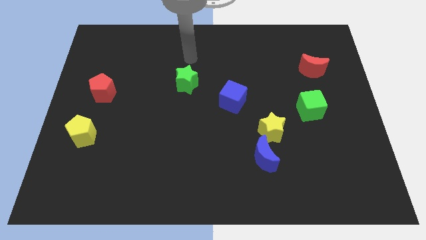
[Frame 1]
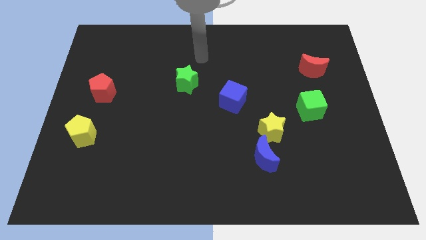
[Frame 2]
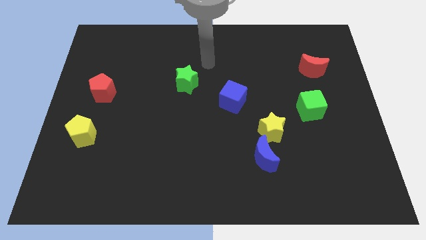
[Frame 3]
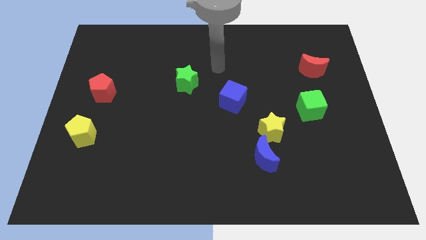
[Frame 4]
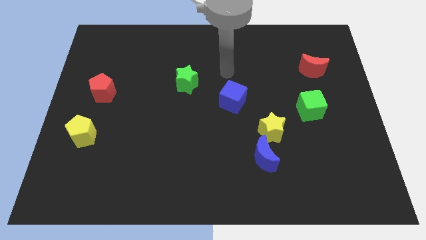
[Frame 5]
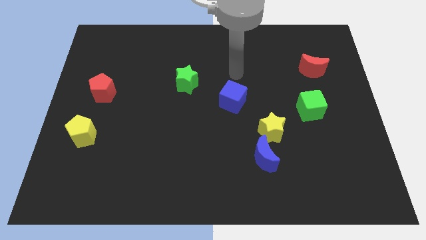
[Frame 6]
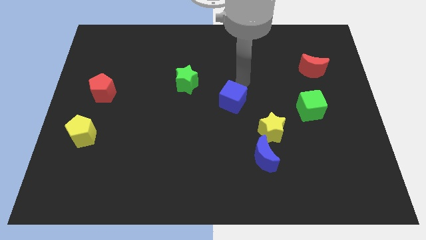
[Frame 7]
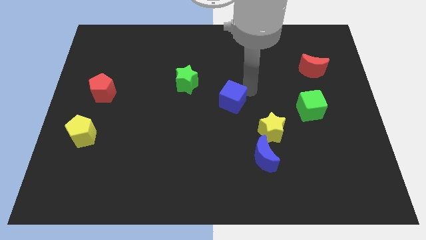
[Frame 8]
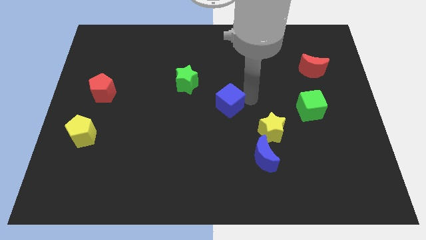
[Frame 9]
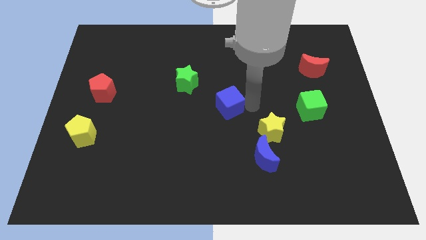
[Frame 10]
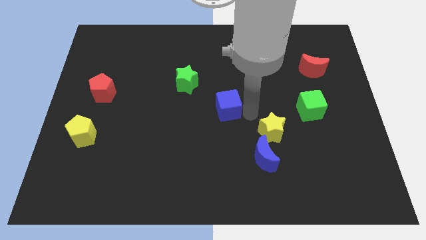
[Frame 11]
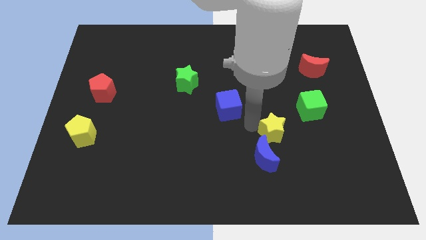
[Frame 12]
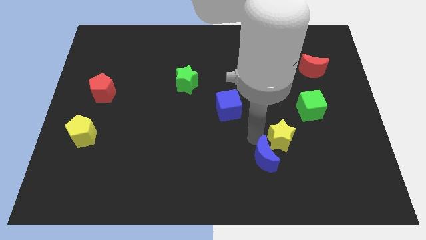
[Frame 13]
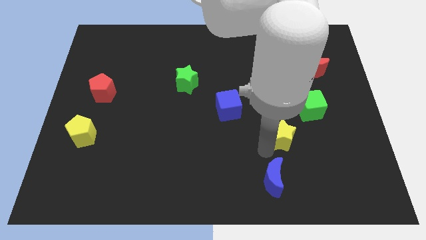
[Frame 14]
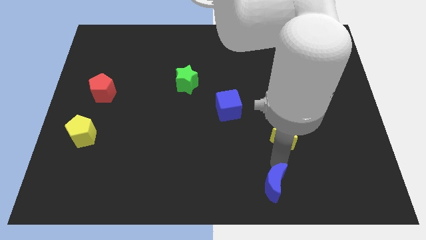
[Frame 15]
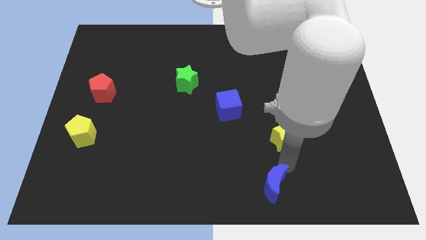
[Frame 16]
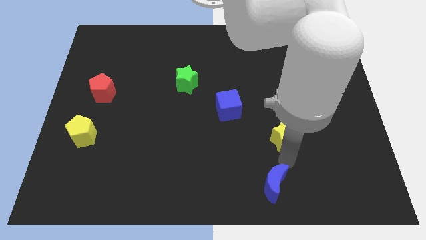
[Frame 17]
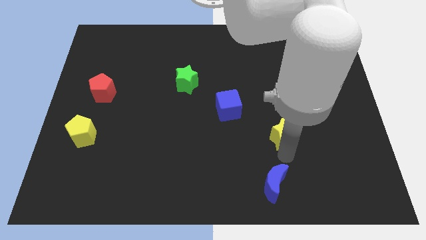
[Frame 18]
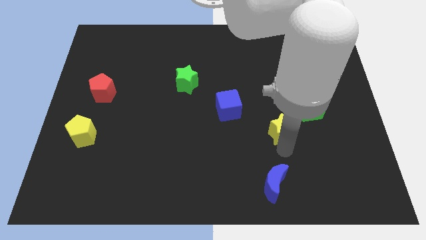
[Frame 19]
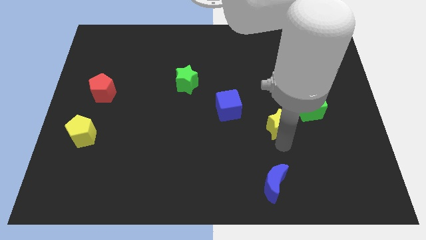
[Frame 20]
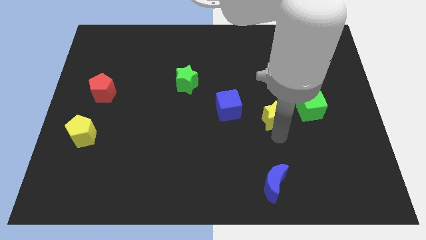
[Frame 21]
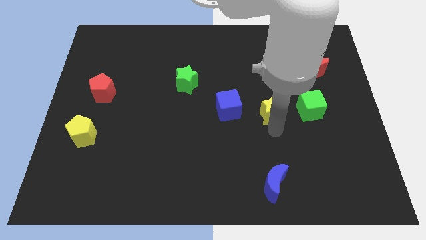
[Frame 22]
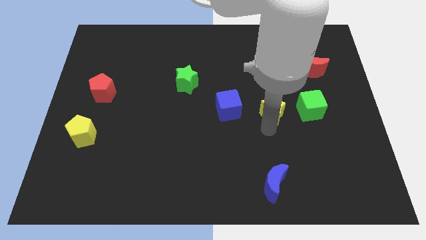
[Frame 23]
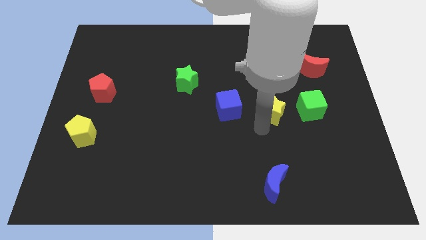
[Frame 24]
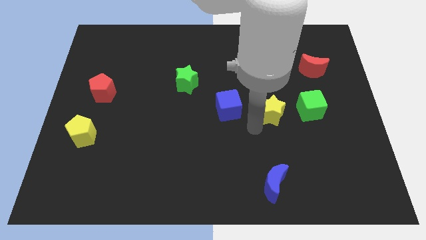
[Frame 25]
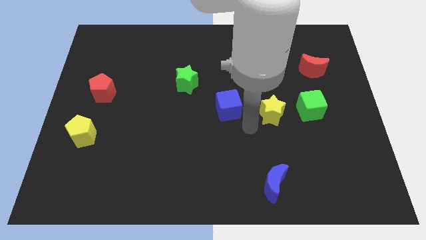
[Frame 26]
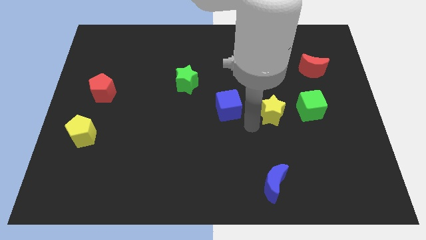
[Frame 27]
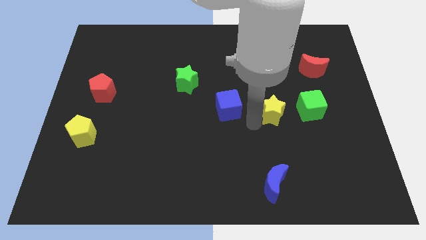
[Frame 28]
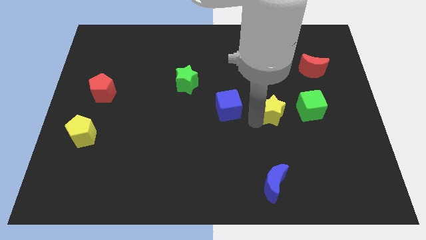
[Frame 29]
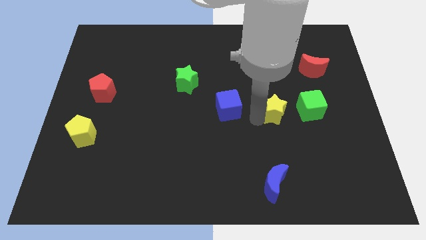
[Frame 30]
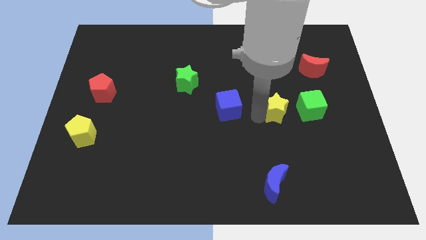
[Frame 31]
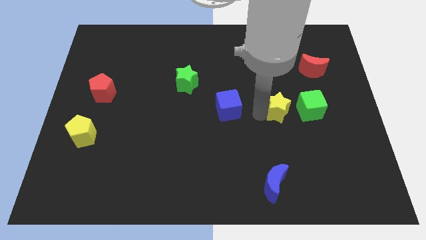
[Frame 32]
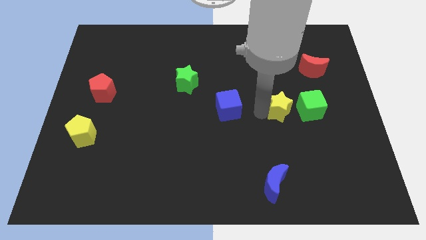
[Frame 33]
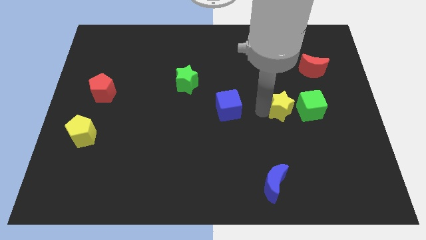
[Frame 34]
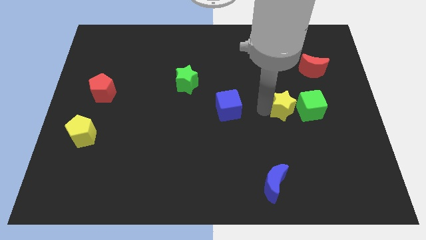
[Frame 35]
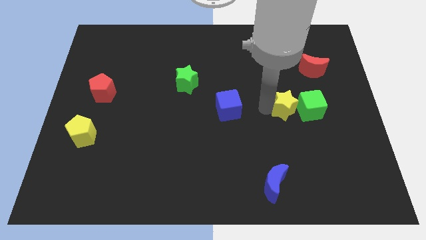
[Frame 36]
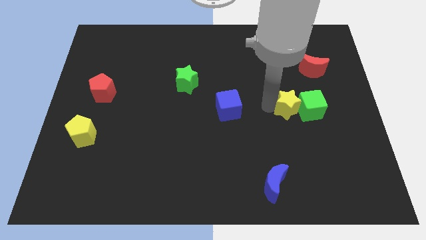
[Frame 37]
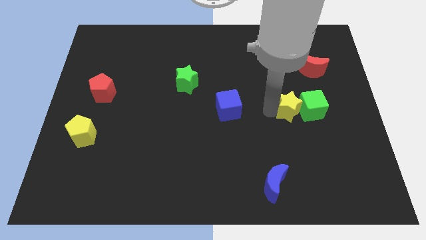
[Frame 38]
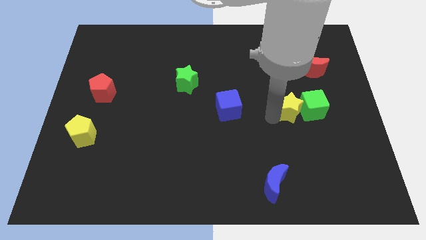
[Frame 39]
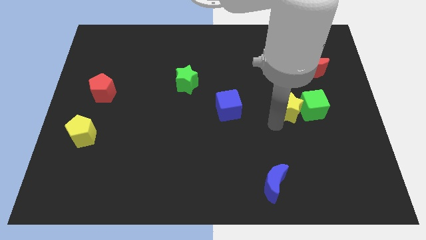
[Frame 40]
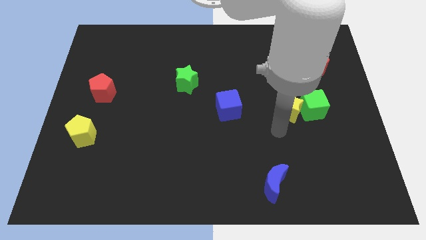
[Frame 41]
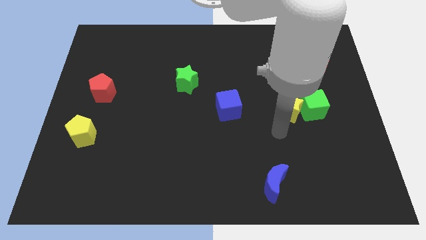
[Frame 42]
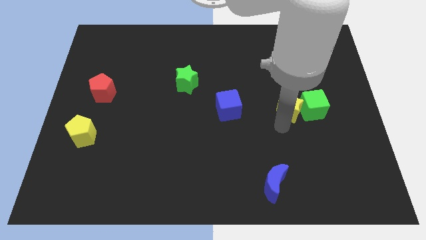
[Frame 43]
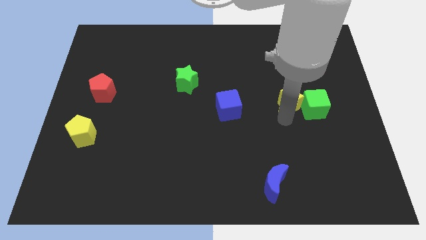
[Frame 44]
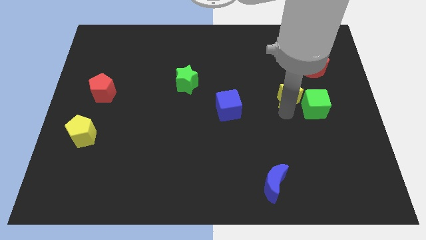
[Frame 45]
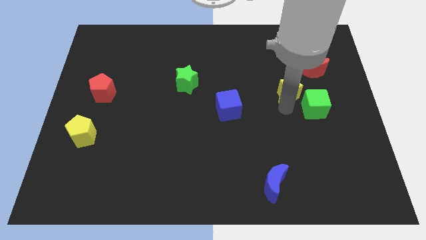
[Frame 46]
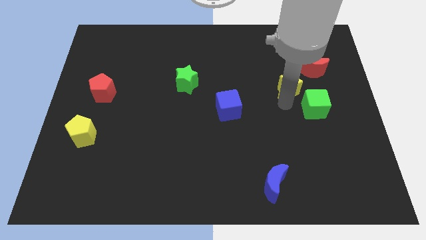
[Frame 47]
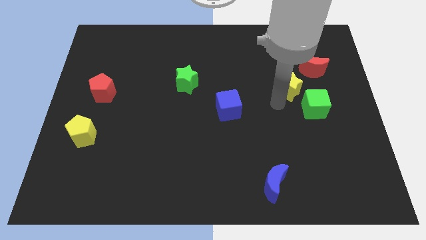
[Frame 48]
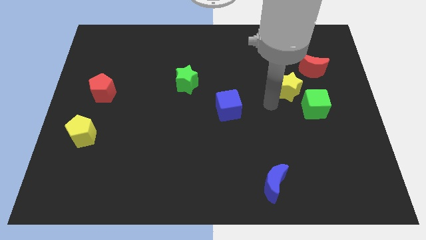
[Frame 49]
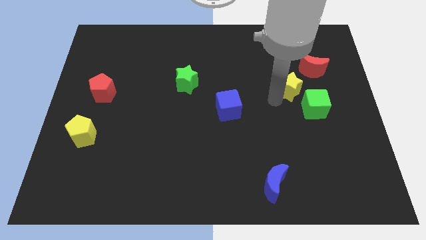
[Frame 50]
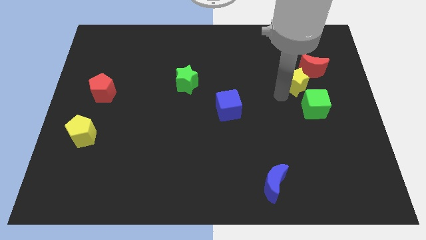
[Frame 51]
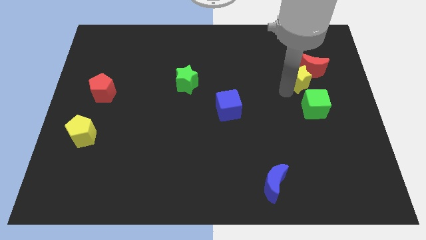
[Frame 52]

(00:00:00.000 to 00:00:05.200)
move the yellow star next to the red moon

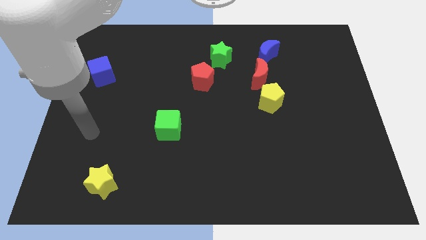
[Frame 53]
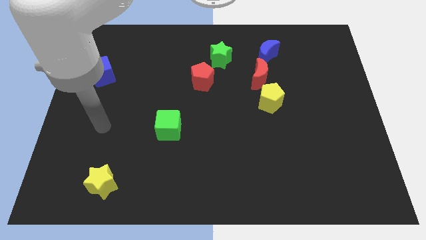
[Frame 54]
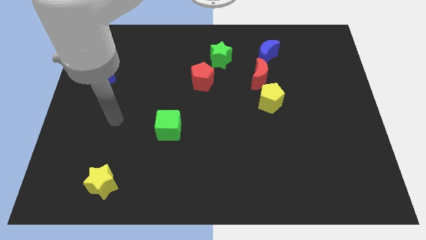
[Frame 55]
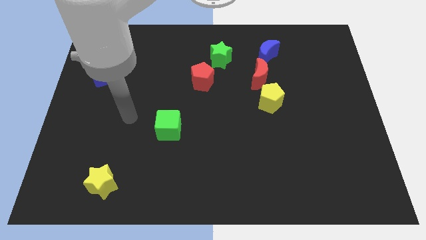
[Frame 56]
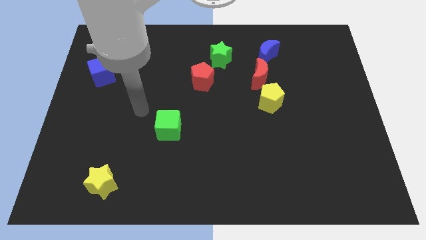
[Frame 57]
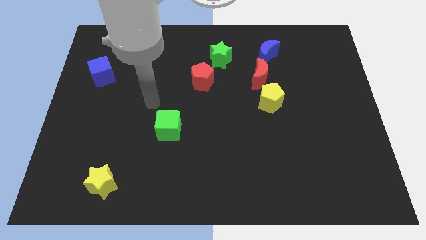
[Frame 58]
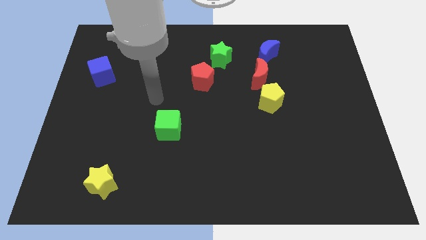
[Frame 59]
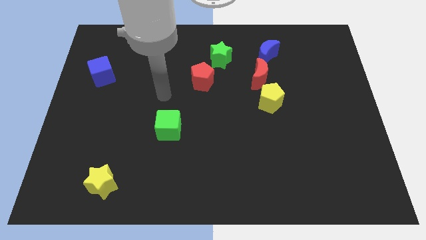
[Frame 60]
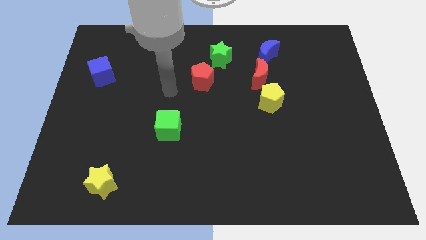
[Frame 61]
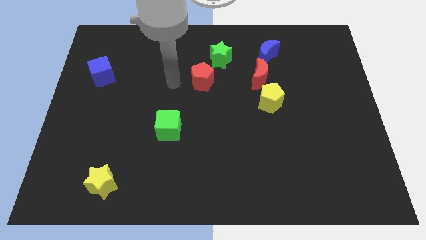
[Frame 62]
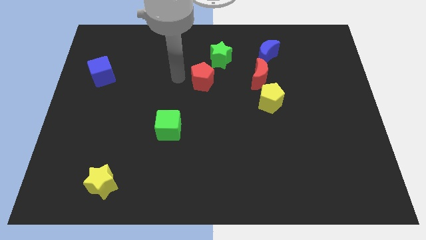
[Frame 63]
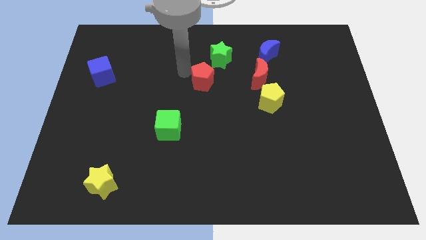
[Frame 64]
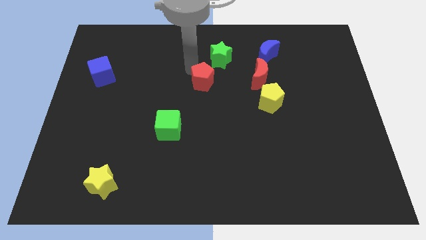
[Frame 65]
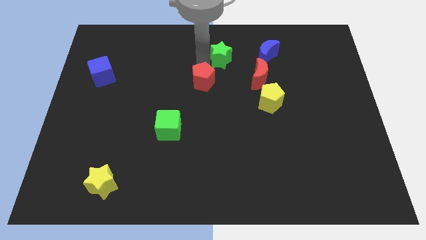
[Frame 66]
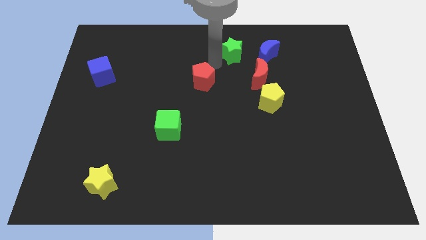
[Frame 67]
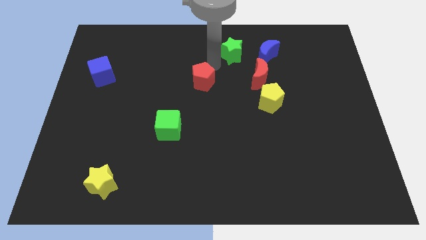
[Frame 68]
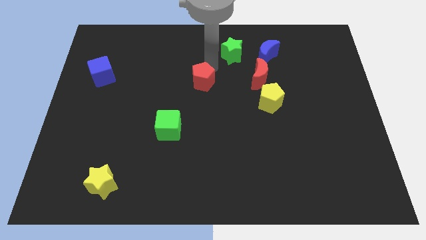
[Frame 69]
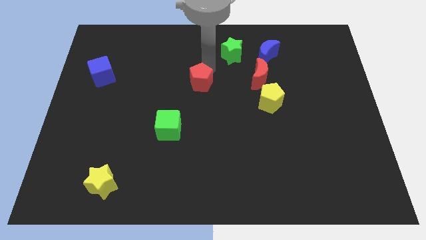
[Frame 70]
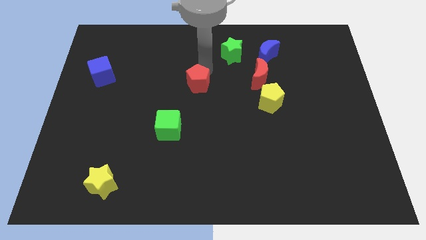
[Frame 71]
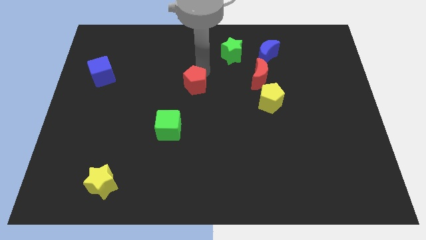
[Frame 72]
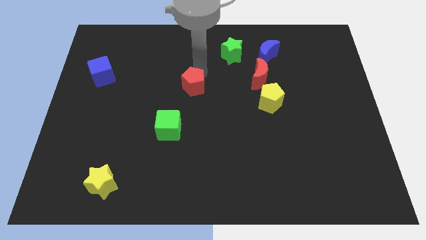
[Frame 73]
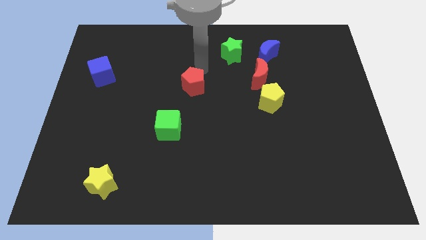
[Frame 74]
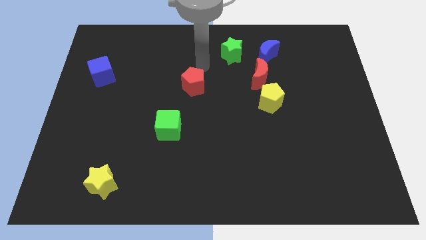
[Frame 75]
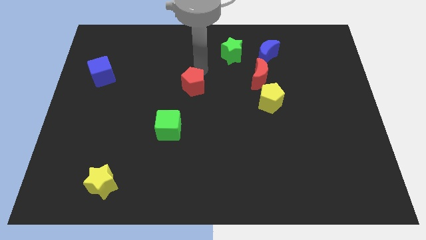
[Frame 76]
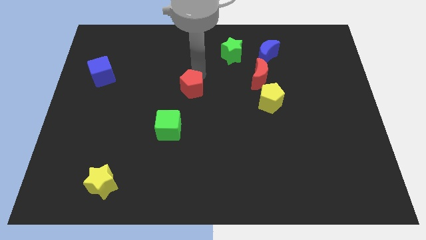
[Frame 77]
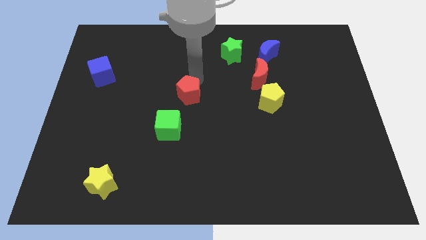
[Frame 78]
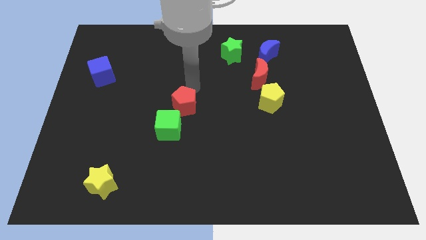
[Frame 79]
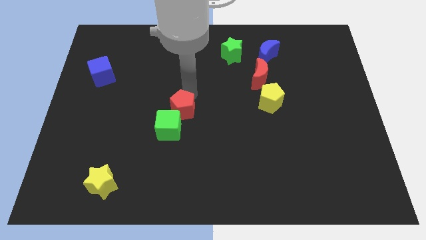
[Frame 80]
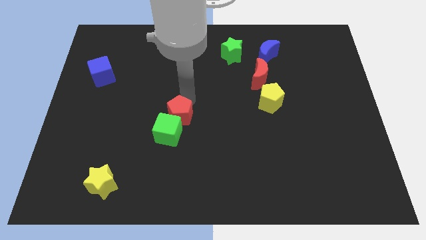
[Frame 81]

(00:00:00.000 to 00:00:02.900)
put the red pentagon next to the green cube
